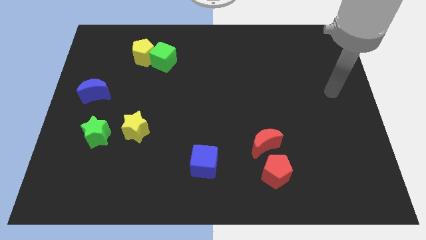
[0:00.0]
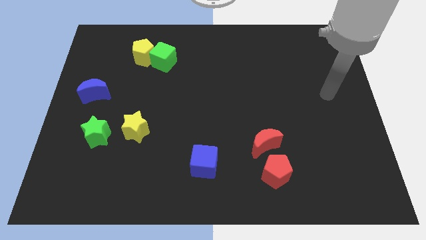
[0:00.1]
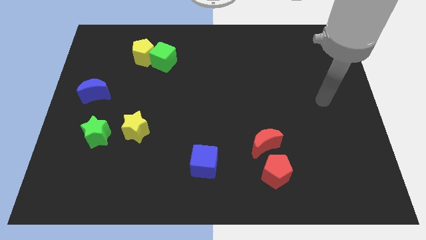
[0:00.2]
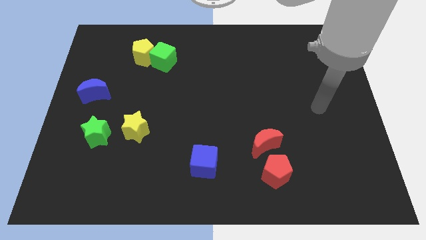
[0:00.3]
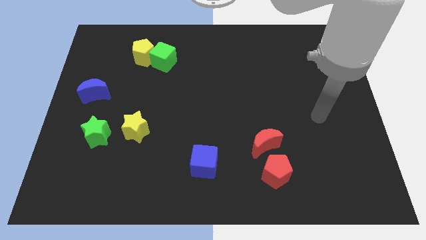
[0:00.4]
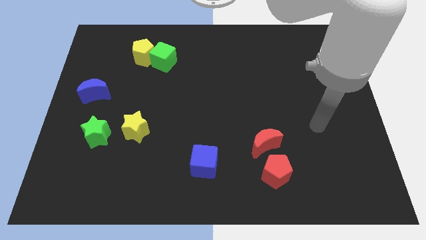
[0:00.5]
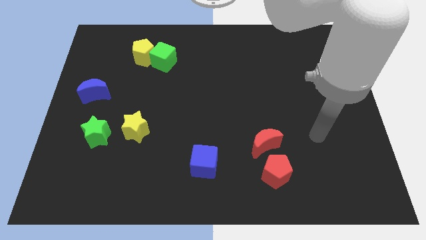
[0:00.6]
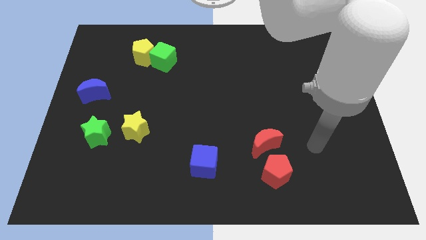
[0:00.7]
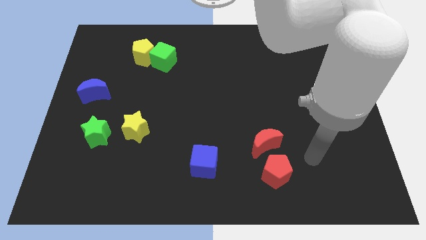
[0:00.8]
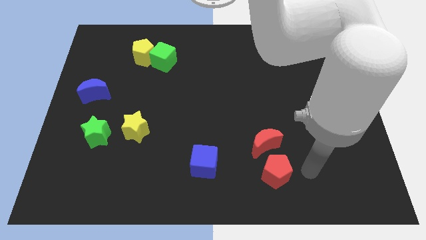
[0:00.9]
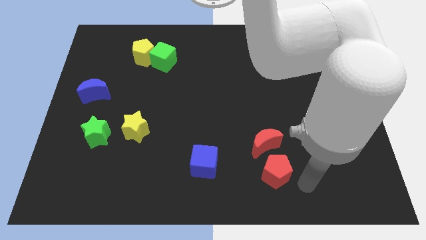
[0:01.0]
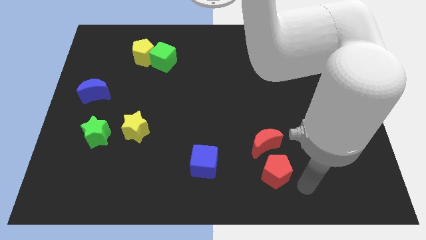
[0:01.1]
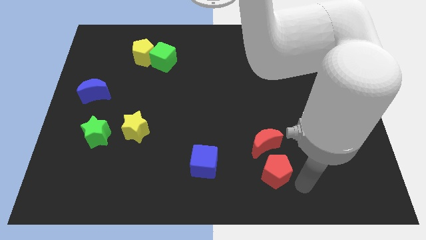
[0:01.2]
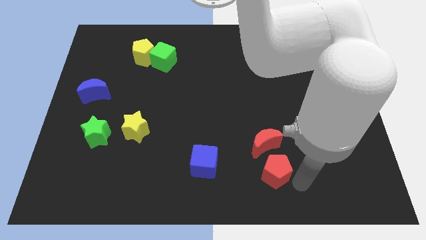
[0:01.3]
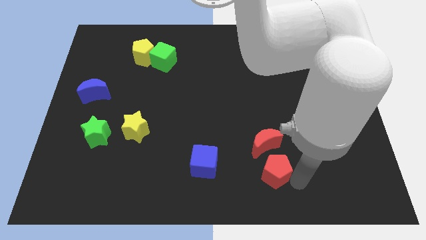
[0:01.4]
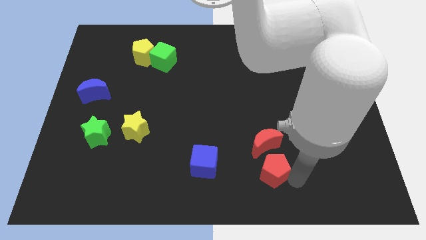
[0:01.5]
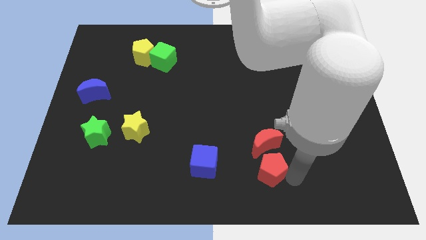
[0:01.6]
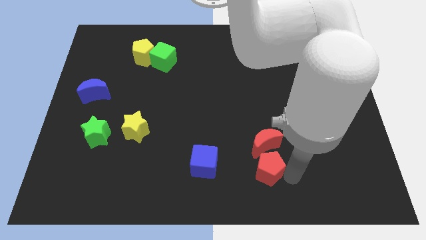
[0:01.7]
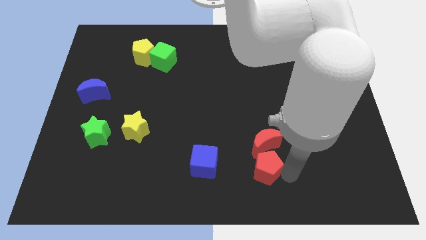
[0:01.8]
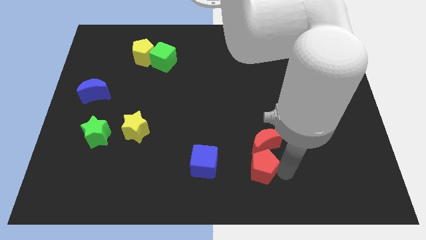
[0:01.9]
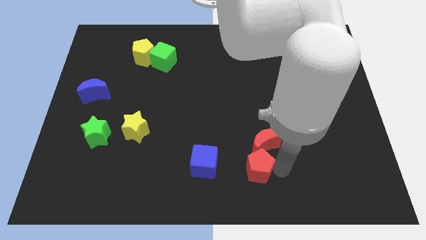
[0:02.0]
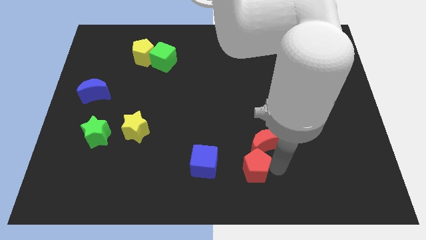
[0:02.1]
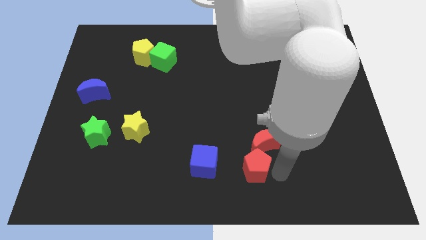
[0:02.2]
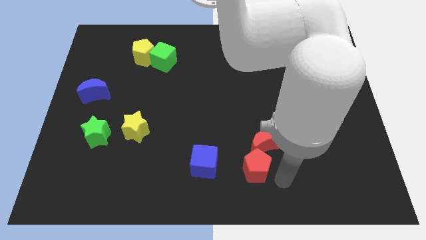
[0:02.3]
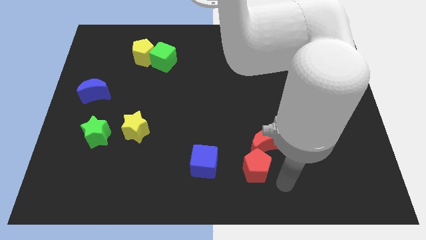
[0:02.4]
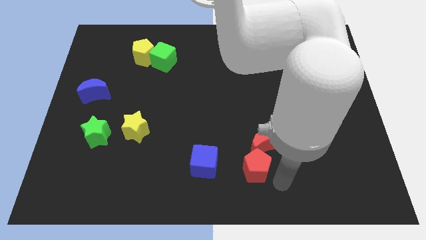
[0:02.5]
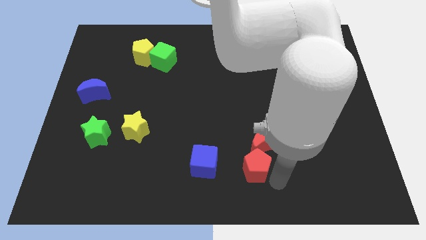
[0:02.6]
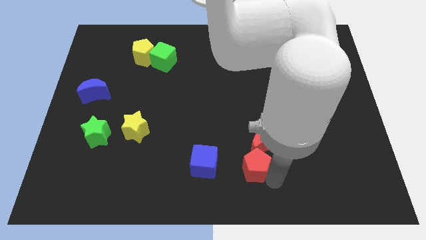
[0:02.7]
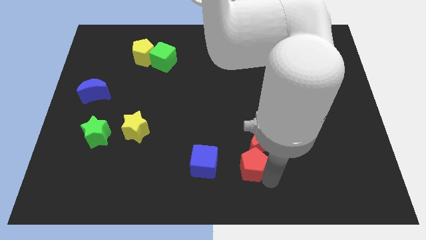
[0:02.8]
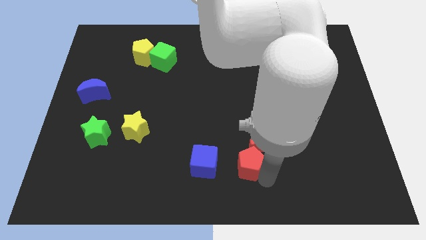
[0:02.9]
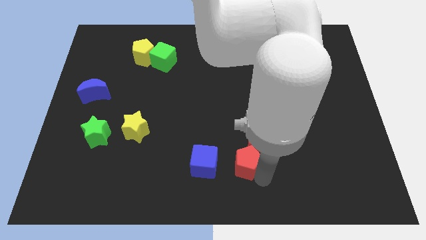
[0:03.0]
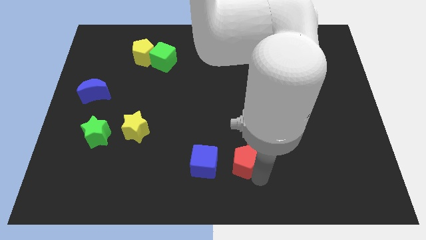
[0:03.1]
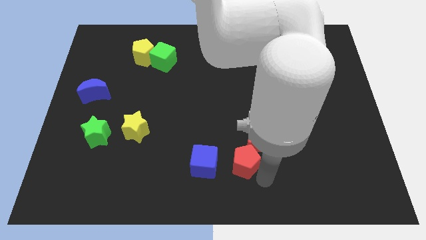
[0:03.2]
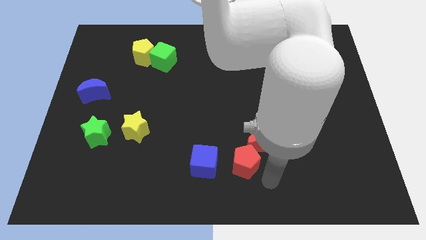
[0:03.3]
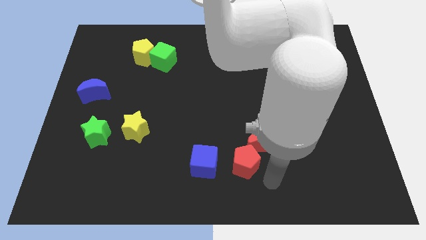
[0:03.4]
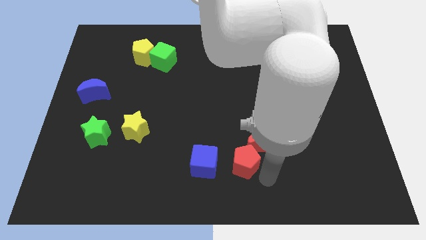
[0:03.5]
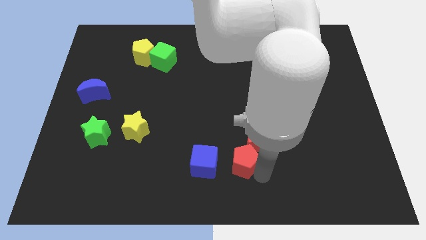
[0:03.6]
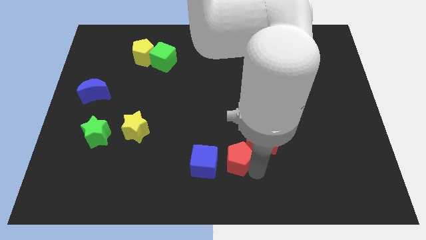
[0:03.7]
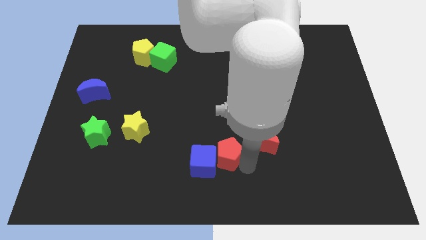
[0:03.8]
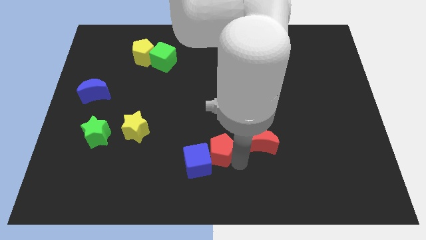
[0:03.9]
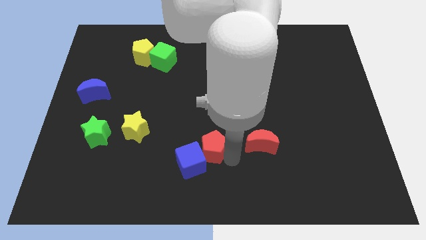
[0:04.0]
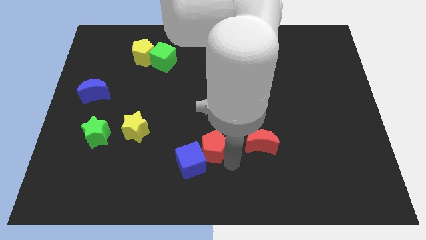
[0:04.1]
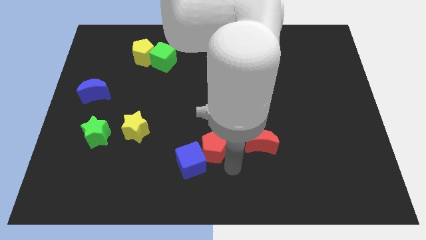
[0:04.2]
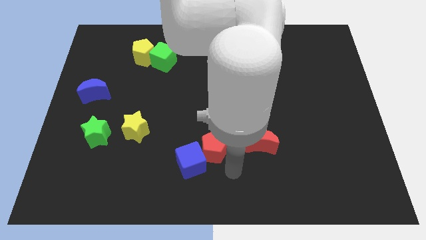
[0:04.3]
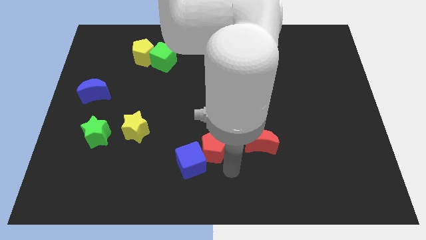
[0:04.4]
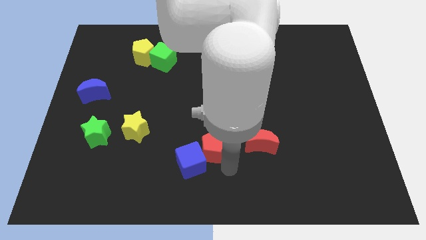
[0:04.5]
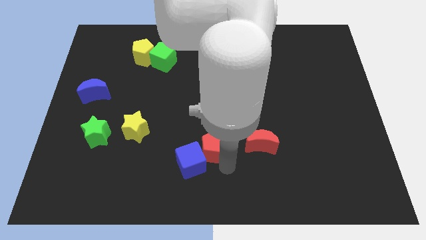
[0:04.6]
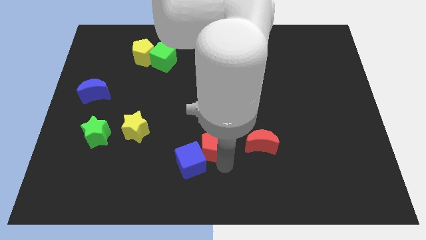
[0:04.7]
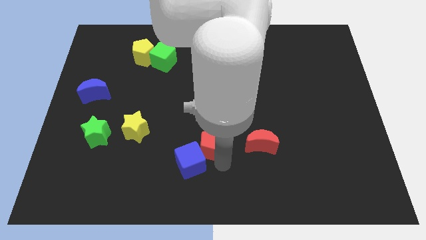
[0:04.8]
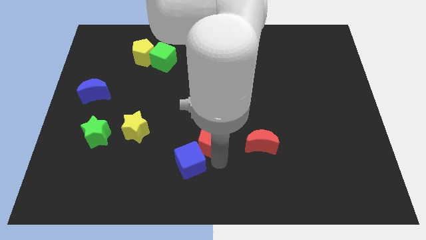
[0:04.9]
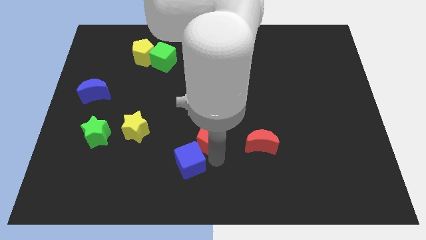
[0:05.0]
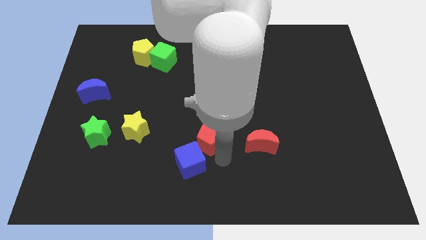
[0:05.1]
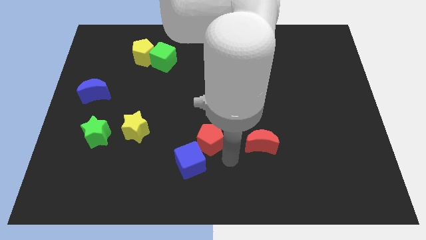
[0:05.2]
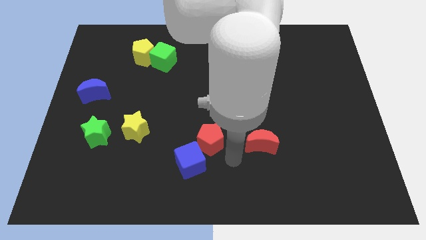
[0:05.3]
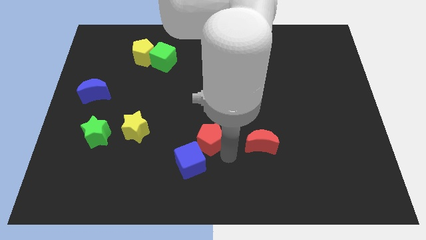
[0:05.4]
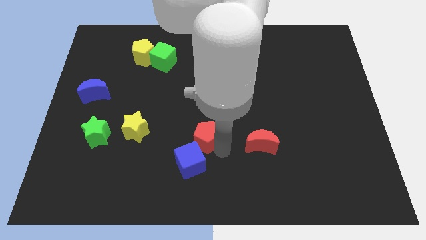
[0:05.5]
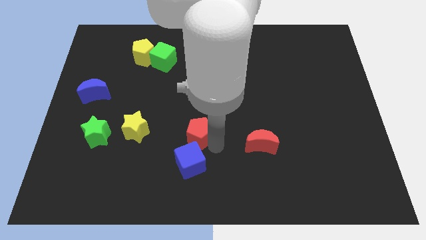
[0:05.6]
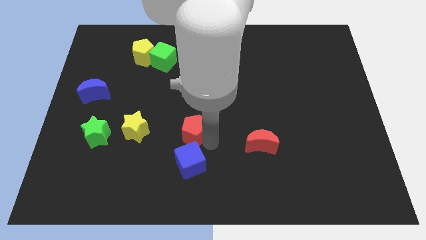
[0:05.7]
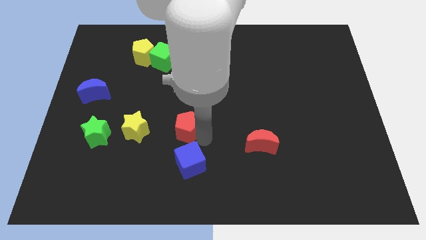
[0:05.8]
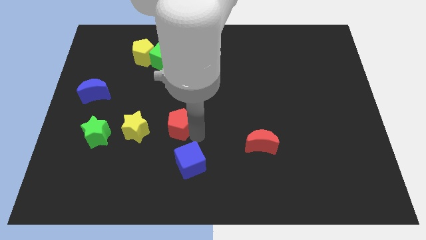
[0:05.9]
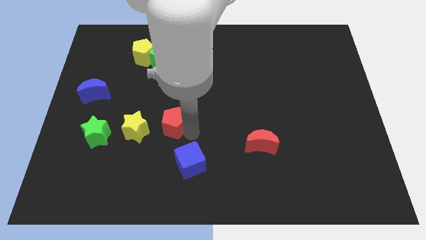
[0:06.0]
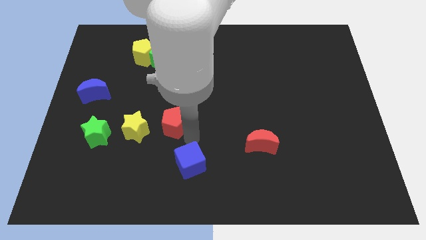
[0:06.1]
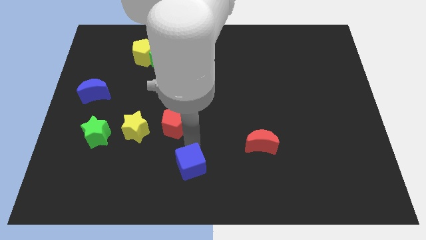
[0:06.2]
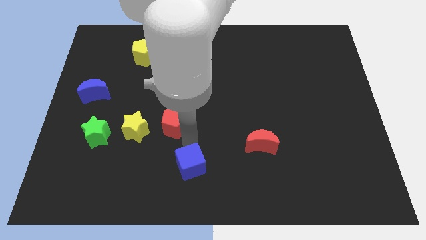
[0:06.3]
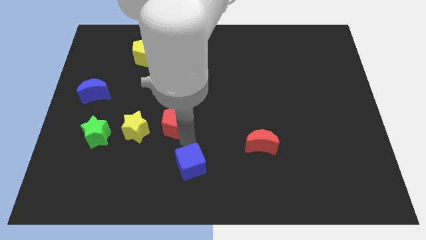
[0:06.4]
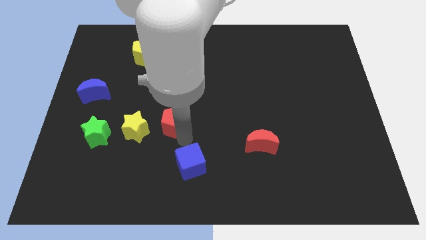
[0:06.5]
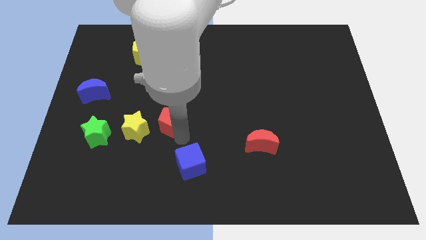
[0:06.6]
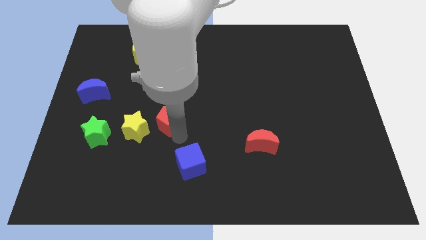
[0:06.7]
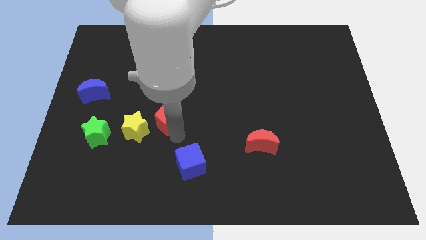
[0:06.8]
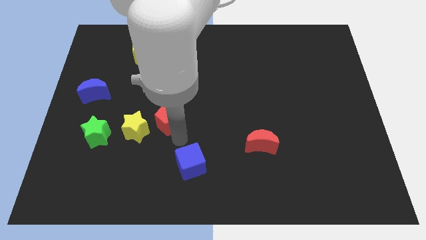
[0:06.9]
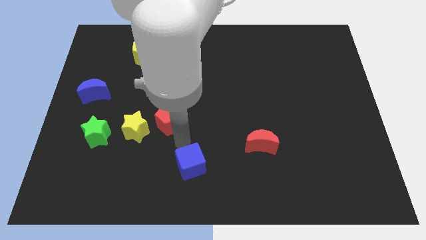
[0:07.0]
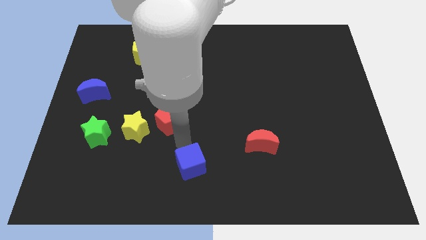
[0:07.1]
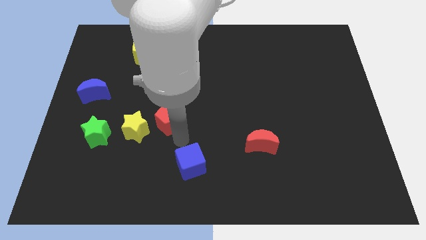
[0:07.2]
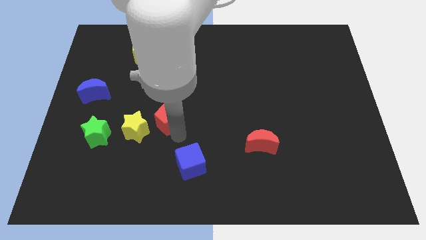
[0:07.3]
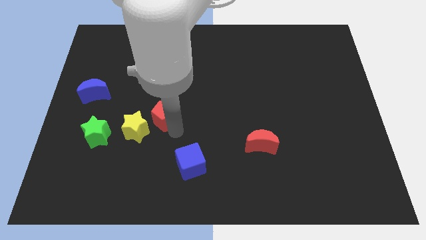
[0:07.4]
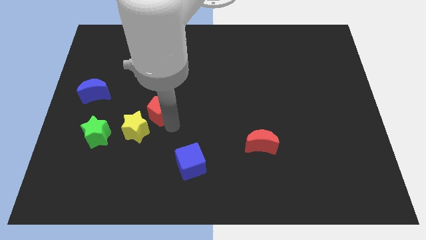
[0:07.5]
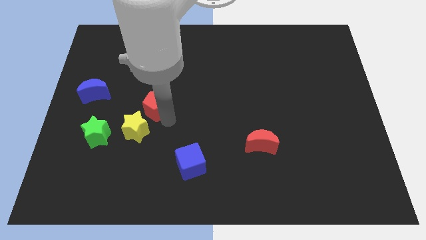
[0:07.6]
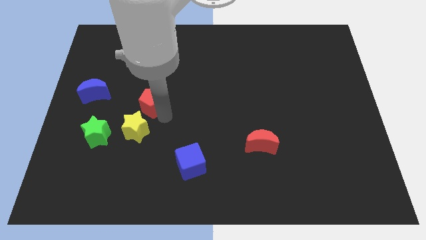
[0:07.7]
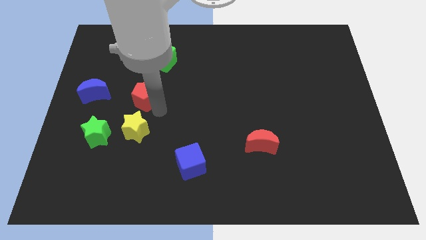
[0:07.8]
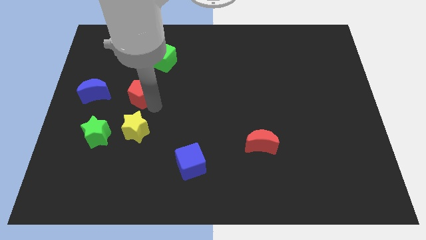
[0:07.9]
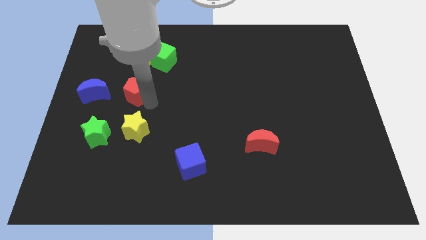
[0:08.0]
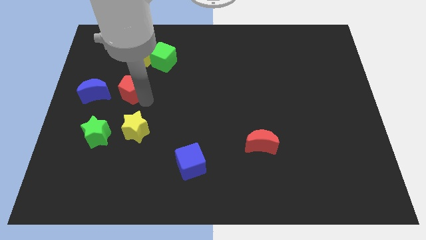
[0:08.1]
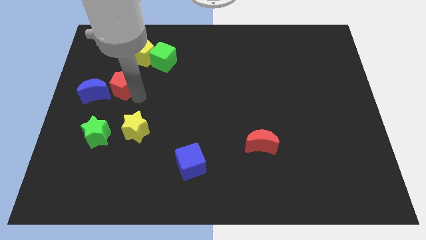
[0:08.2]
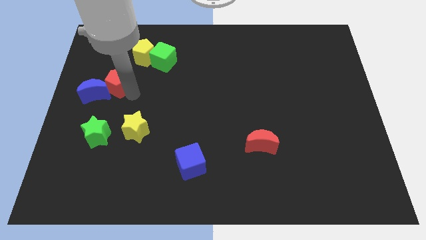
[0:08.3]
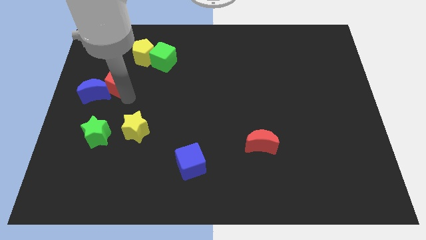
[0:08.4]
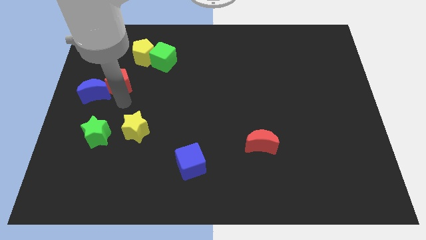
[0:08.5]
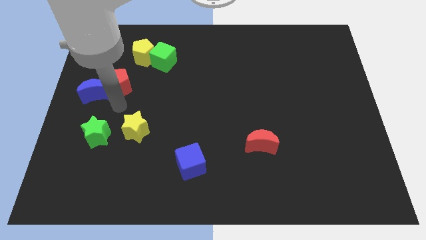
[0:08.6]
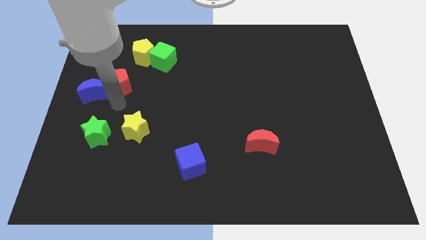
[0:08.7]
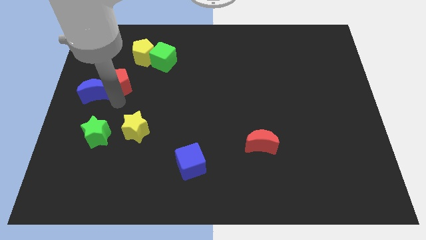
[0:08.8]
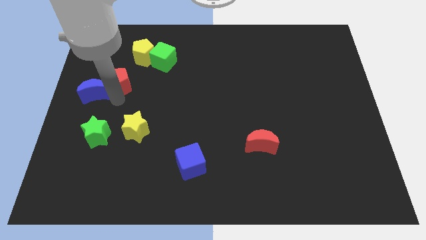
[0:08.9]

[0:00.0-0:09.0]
put the red pentagon diagonally down and to the left of the yellow pentagon
